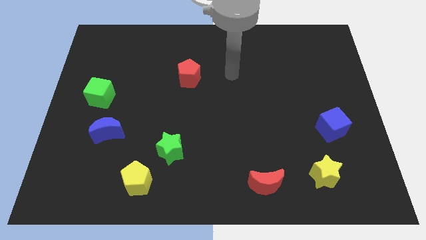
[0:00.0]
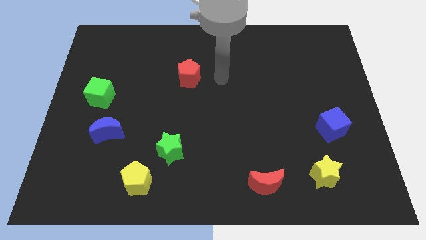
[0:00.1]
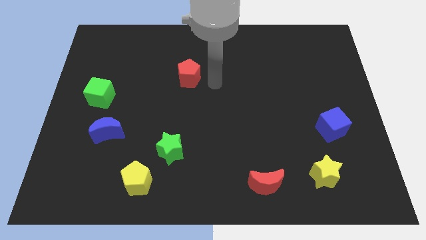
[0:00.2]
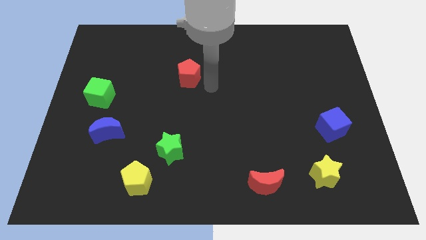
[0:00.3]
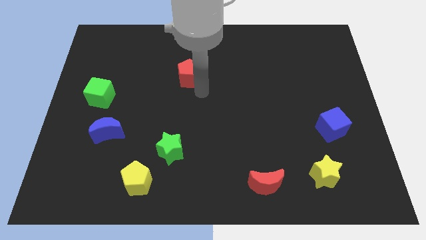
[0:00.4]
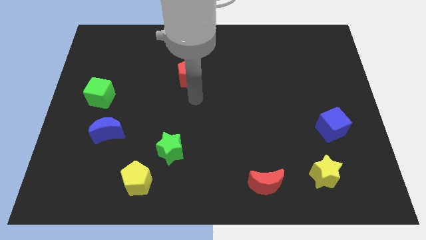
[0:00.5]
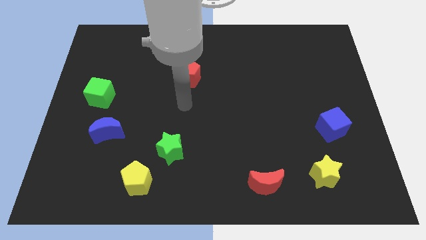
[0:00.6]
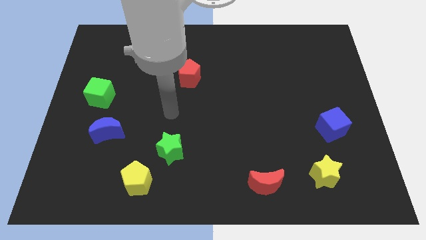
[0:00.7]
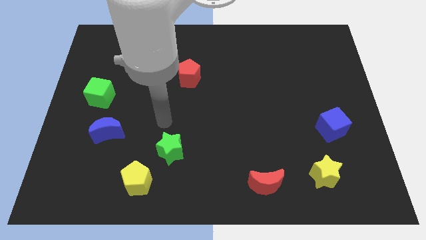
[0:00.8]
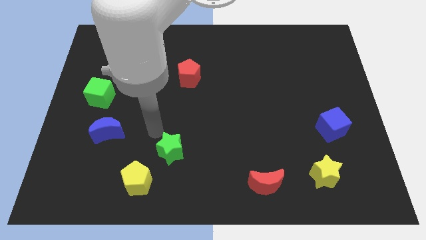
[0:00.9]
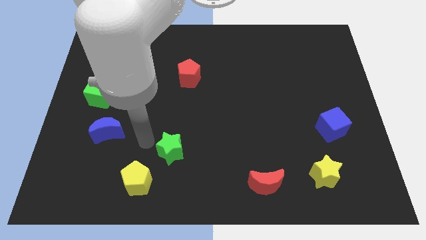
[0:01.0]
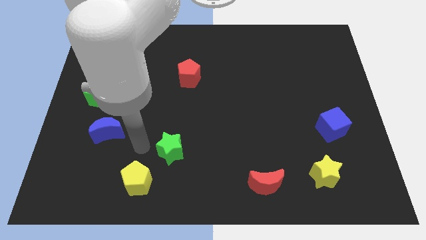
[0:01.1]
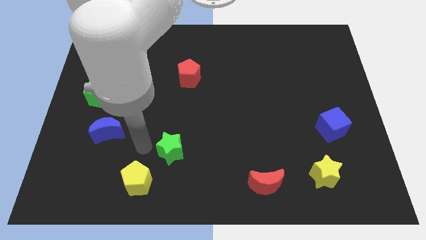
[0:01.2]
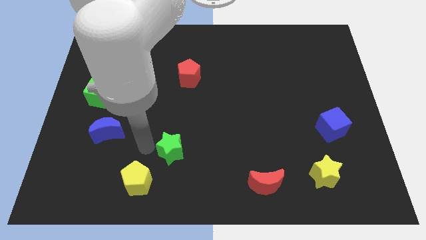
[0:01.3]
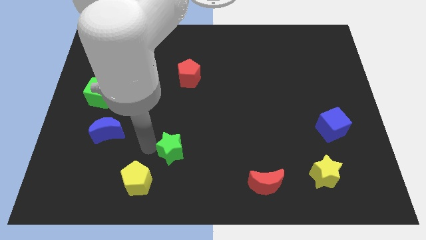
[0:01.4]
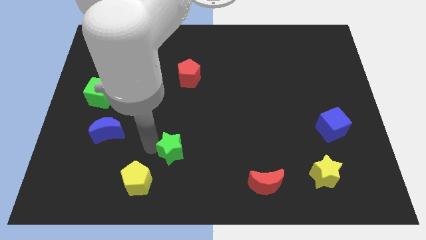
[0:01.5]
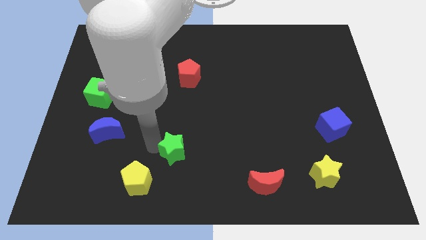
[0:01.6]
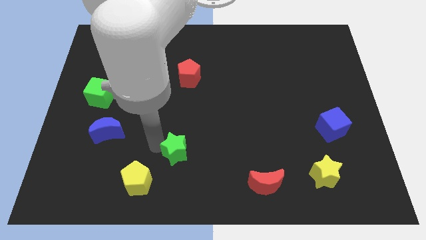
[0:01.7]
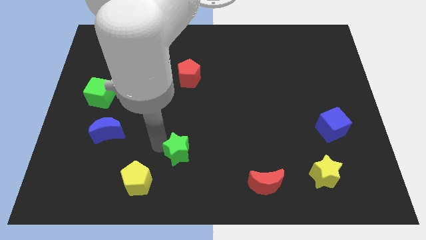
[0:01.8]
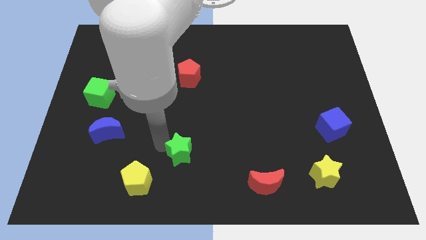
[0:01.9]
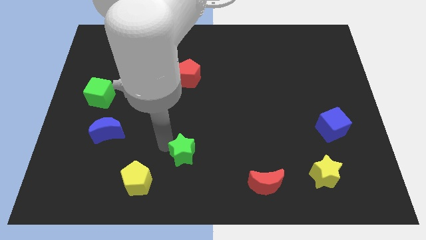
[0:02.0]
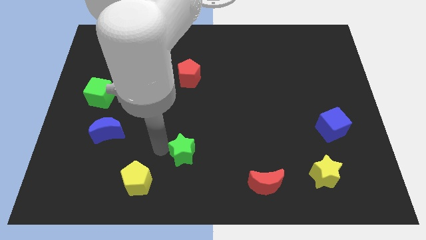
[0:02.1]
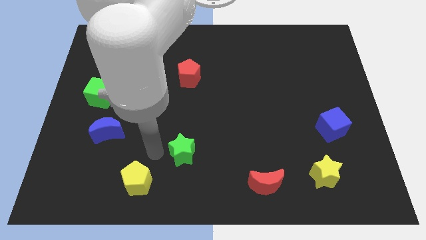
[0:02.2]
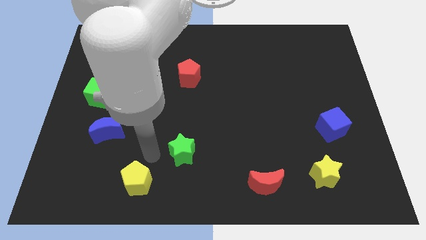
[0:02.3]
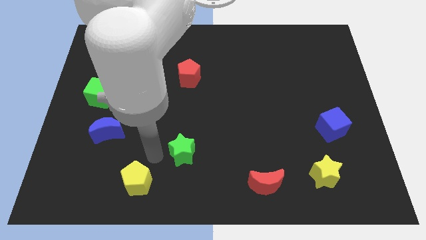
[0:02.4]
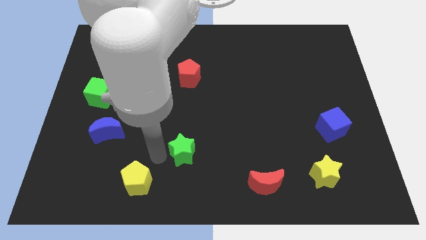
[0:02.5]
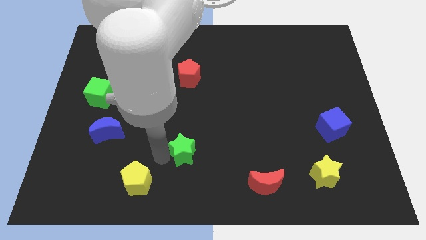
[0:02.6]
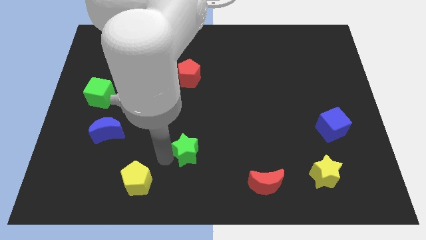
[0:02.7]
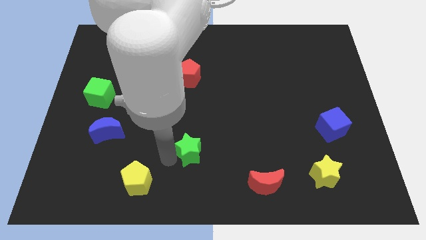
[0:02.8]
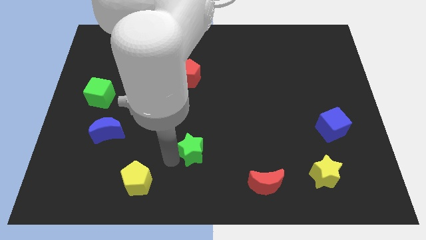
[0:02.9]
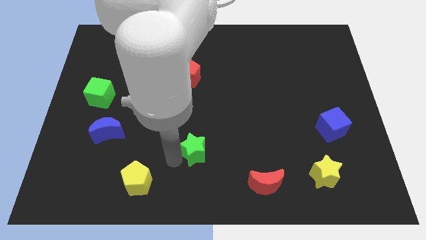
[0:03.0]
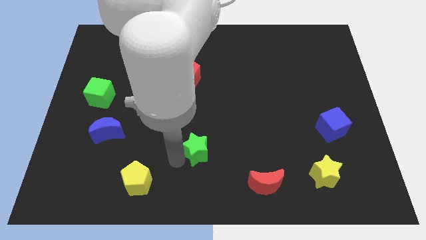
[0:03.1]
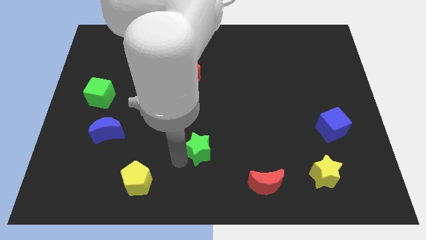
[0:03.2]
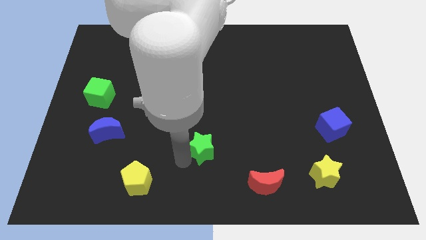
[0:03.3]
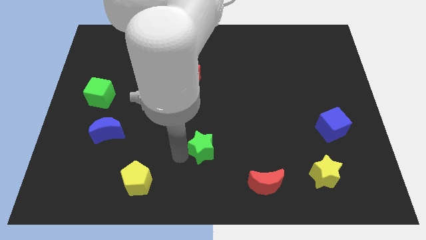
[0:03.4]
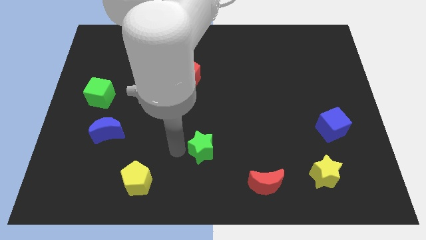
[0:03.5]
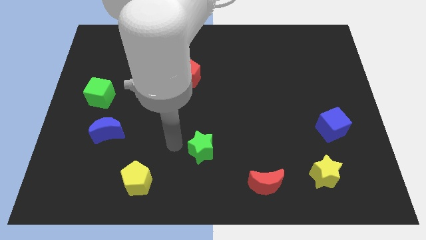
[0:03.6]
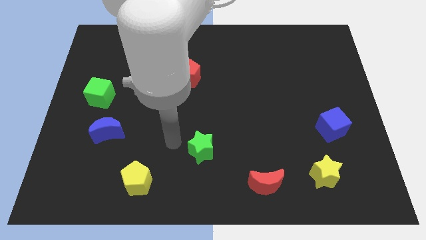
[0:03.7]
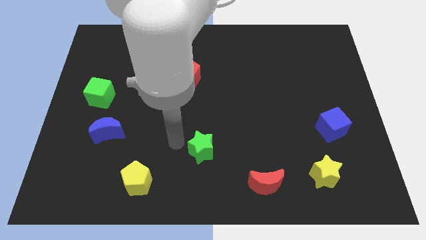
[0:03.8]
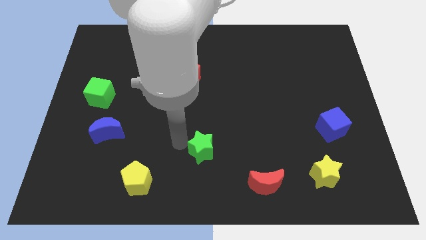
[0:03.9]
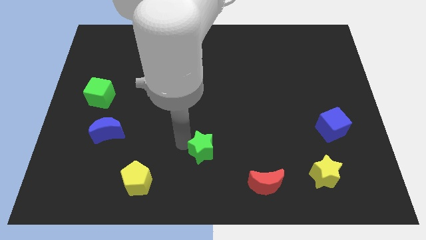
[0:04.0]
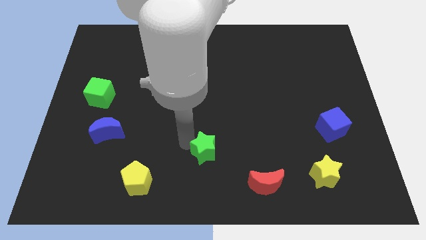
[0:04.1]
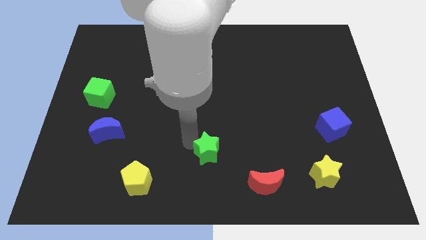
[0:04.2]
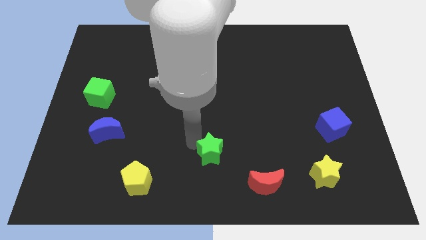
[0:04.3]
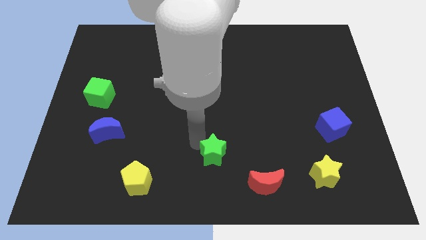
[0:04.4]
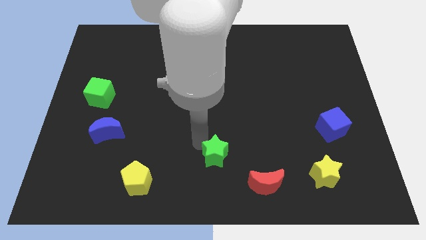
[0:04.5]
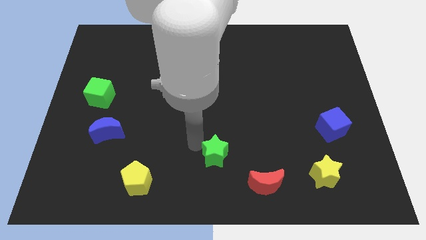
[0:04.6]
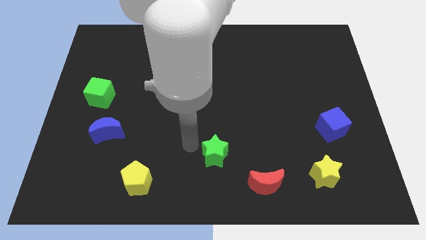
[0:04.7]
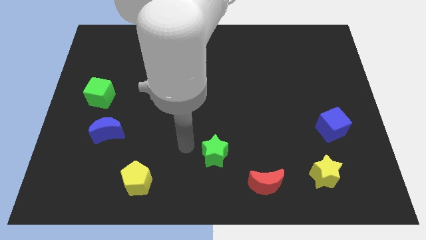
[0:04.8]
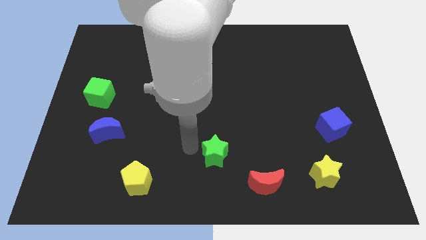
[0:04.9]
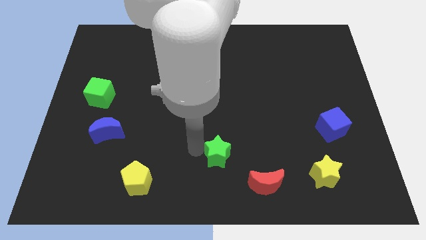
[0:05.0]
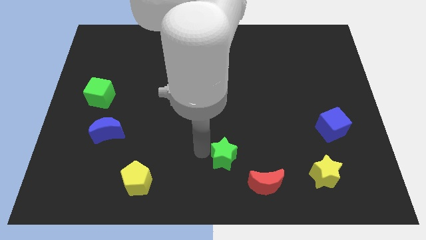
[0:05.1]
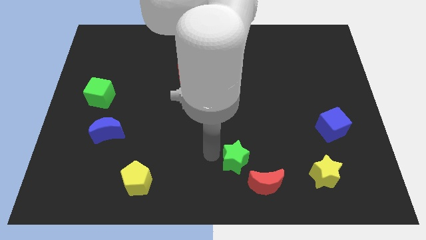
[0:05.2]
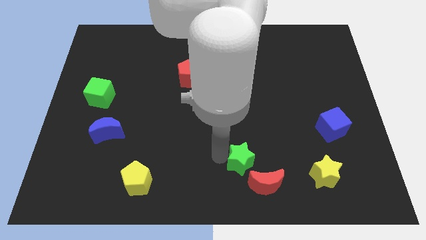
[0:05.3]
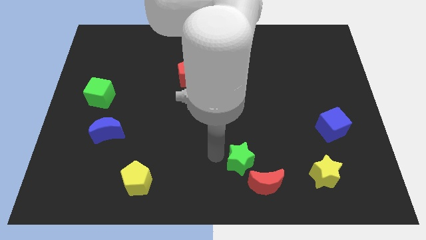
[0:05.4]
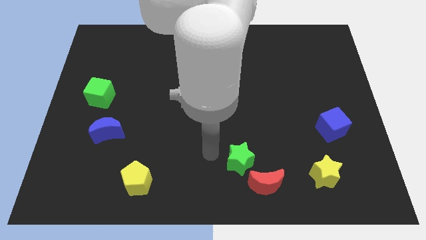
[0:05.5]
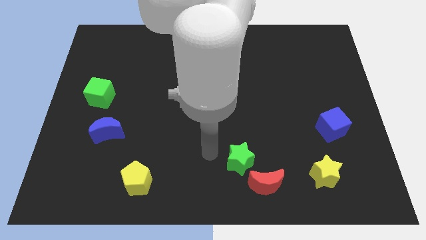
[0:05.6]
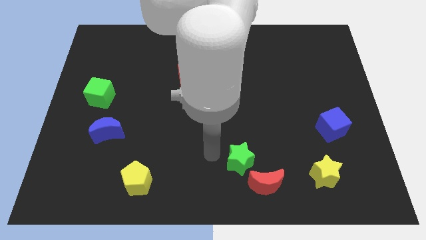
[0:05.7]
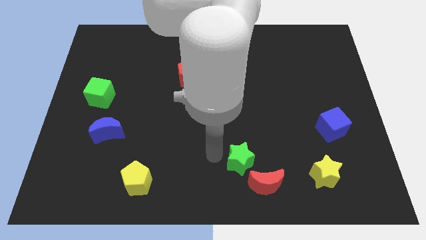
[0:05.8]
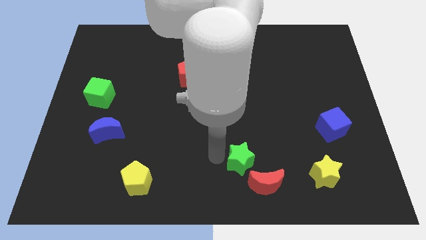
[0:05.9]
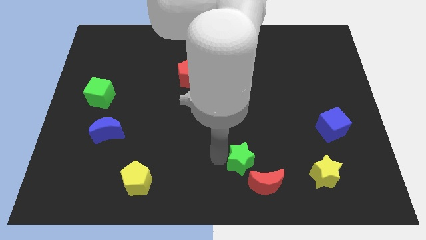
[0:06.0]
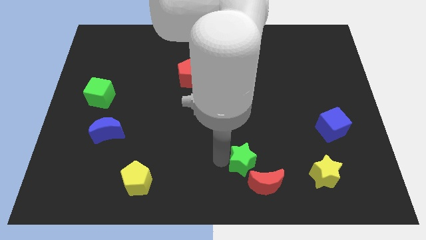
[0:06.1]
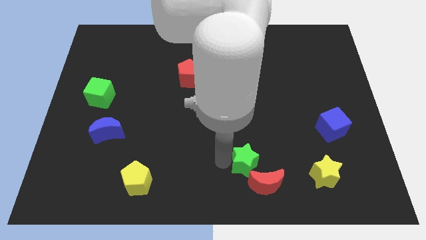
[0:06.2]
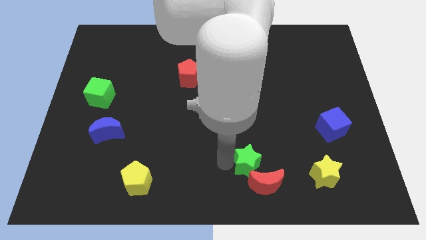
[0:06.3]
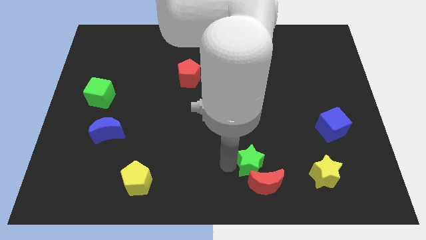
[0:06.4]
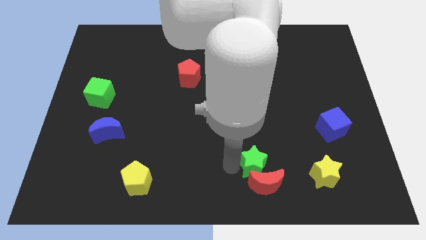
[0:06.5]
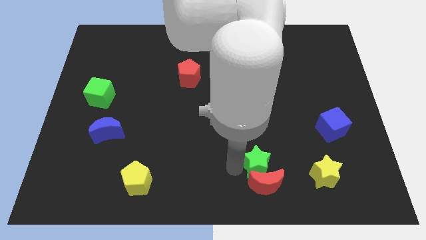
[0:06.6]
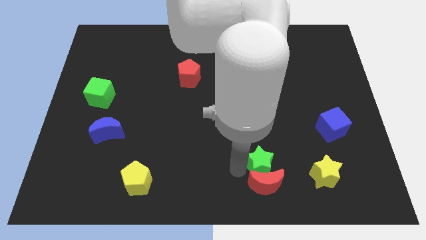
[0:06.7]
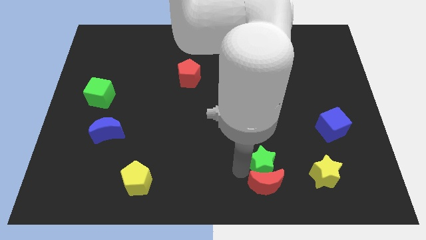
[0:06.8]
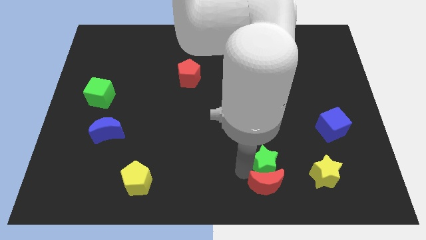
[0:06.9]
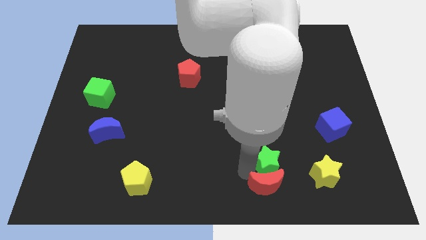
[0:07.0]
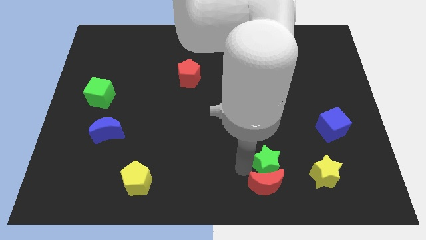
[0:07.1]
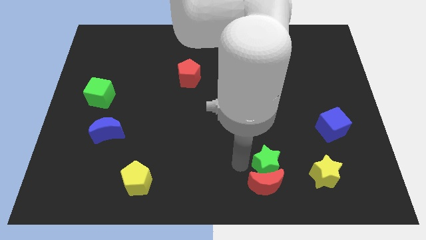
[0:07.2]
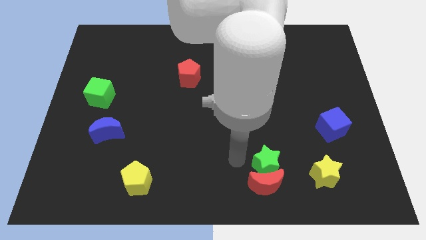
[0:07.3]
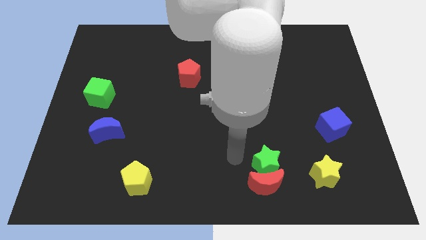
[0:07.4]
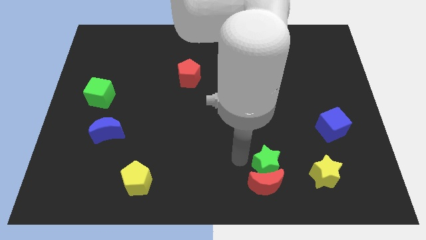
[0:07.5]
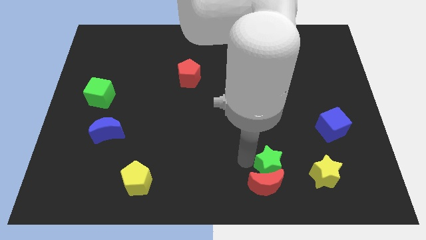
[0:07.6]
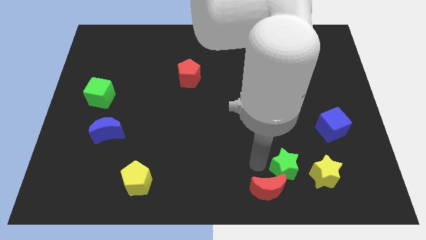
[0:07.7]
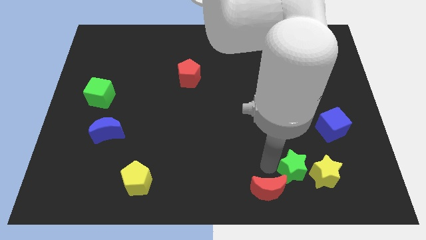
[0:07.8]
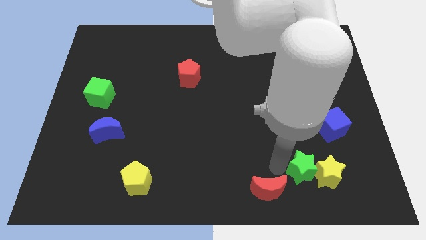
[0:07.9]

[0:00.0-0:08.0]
slide the green star to the yellow star
